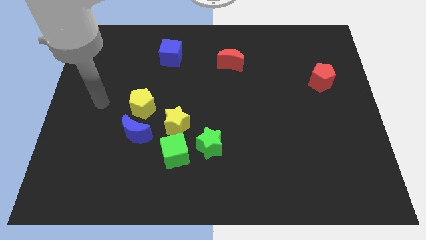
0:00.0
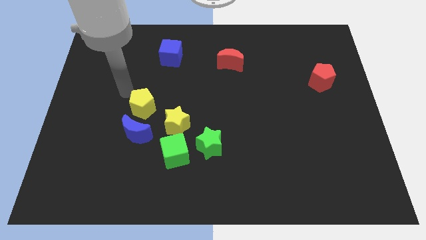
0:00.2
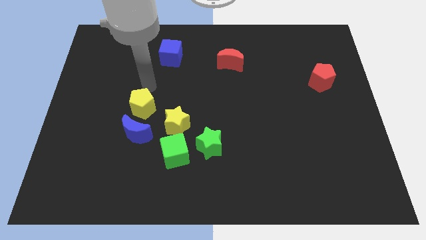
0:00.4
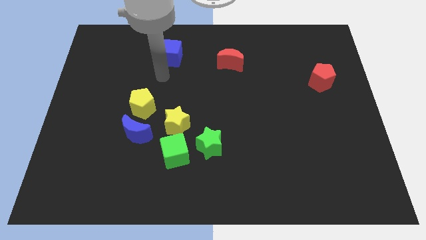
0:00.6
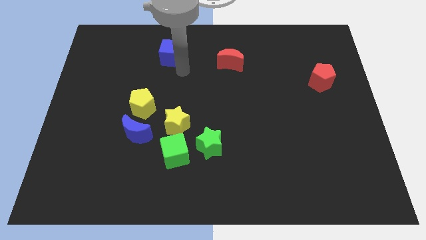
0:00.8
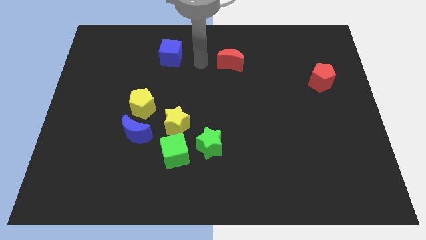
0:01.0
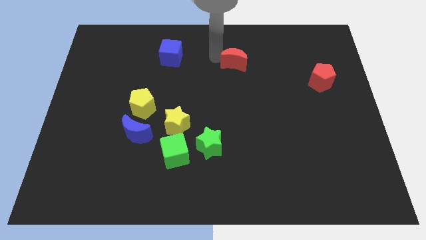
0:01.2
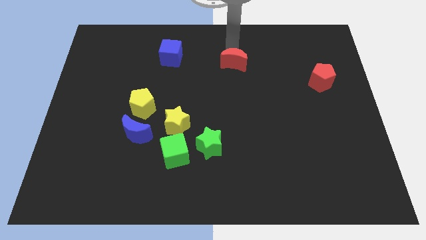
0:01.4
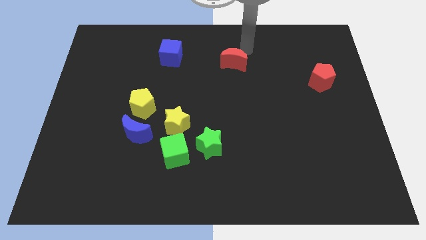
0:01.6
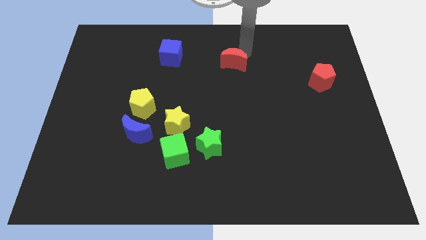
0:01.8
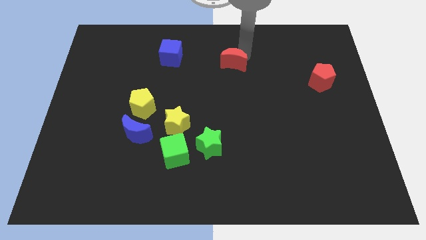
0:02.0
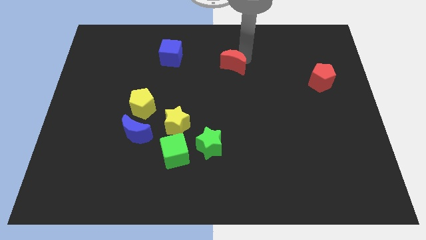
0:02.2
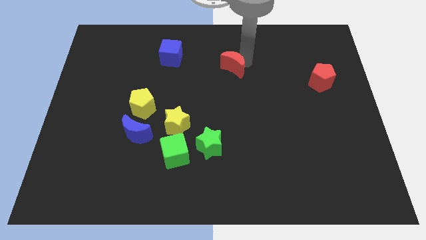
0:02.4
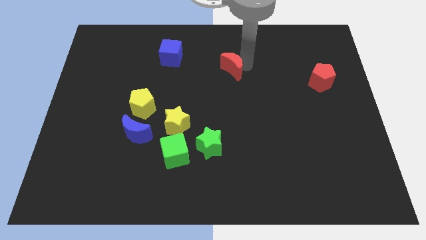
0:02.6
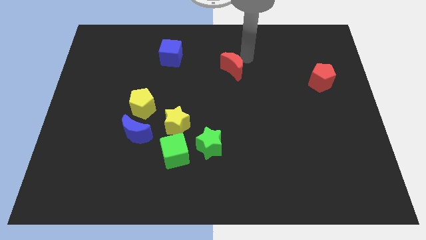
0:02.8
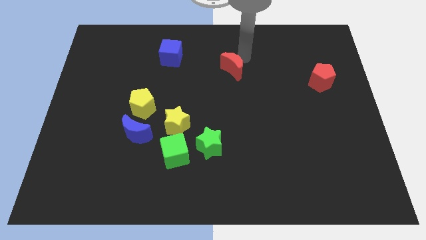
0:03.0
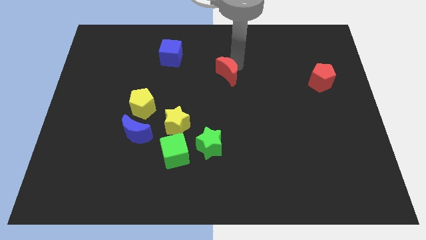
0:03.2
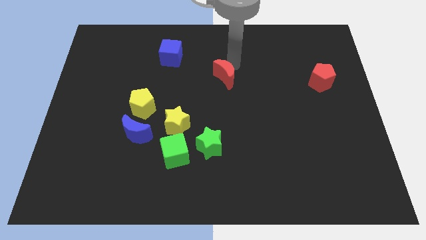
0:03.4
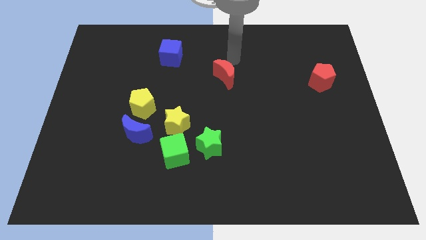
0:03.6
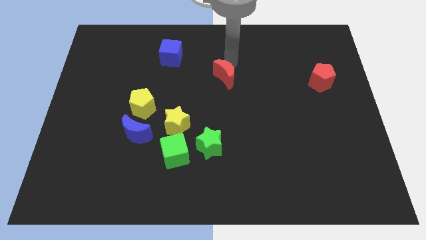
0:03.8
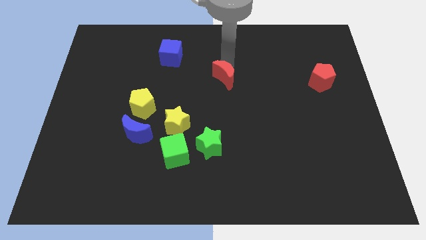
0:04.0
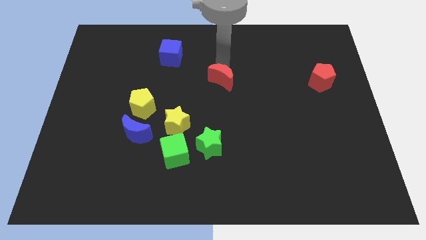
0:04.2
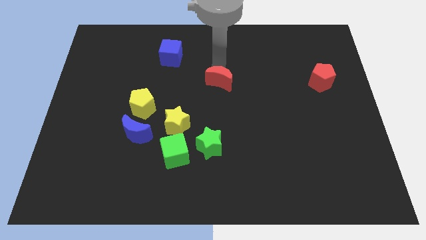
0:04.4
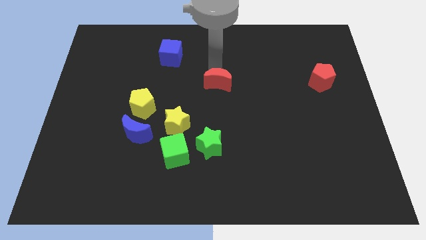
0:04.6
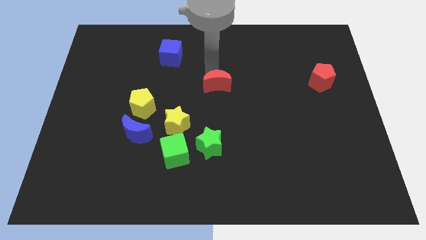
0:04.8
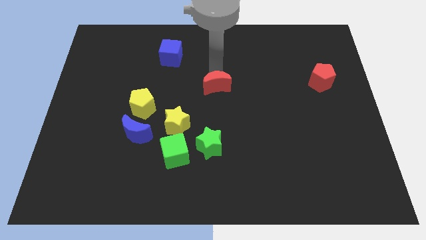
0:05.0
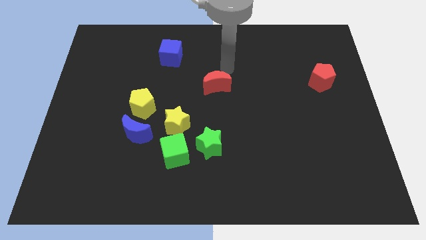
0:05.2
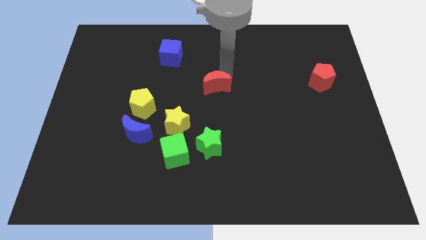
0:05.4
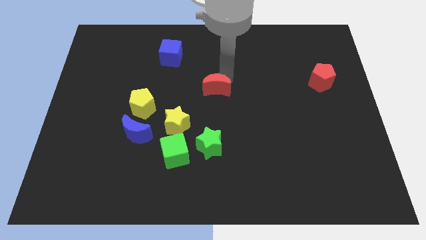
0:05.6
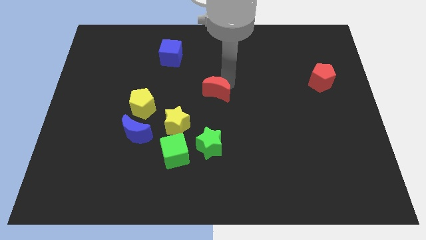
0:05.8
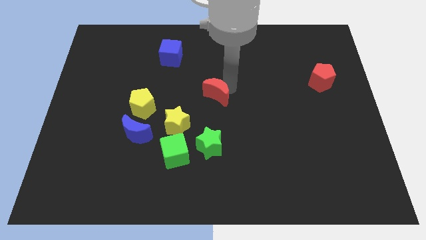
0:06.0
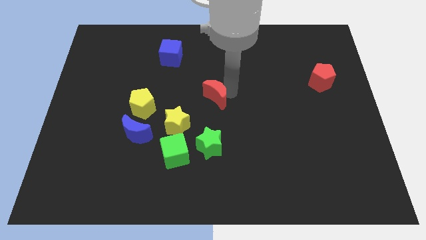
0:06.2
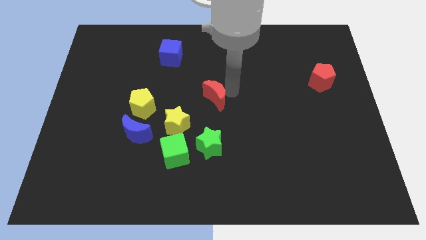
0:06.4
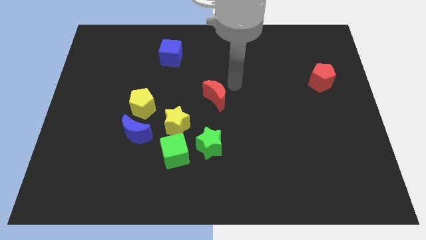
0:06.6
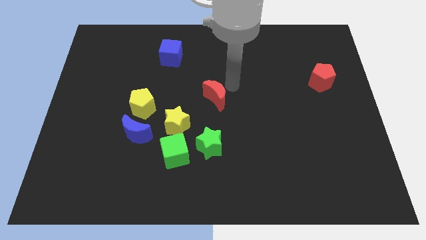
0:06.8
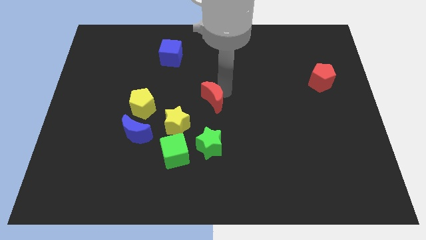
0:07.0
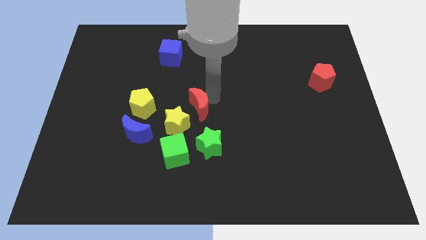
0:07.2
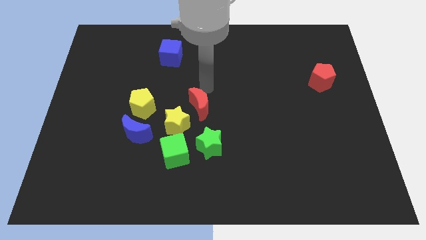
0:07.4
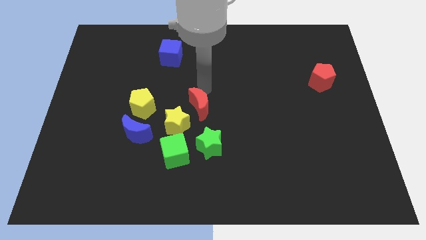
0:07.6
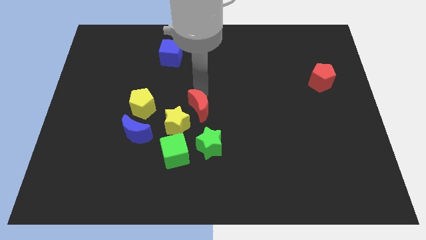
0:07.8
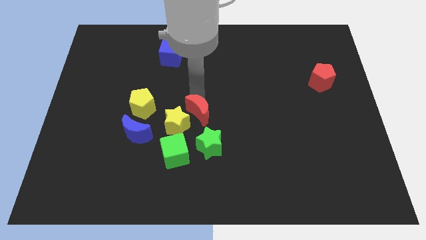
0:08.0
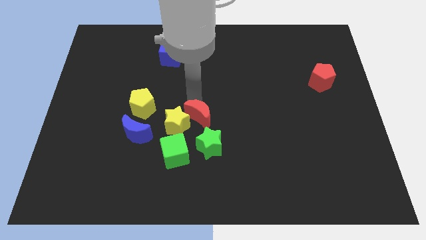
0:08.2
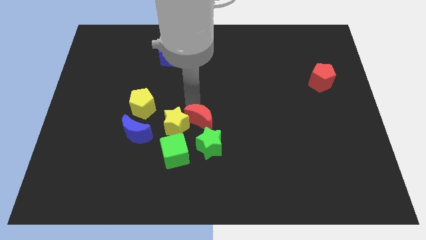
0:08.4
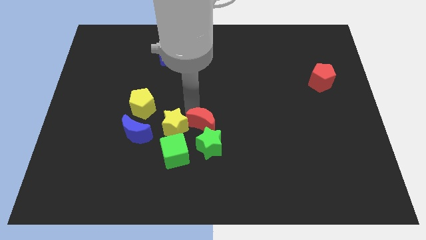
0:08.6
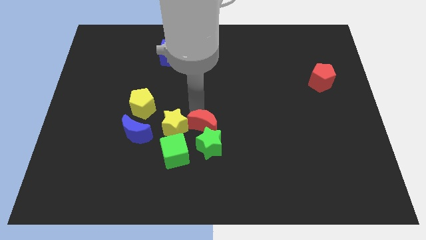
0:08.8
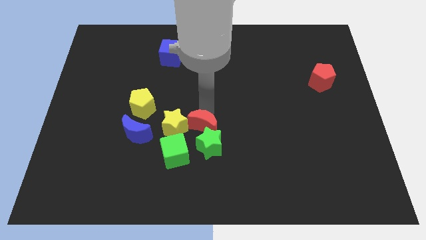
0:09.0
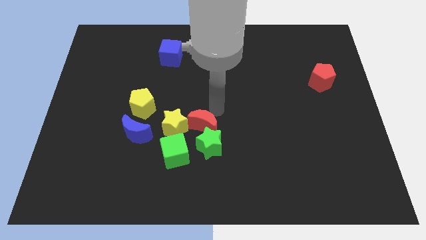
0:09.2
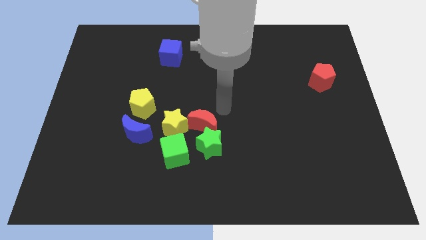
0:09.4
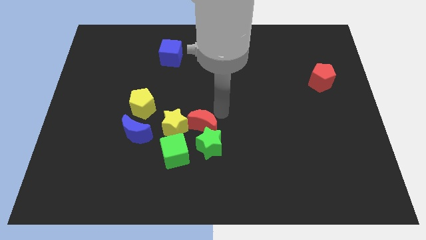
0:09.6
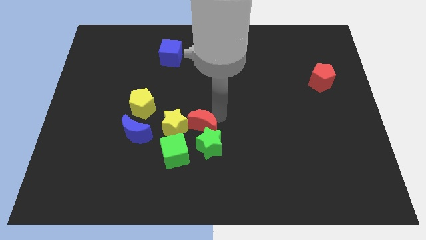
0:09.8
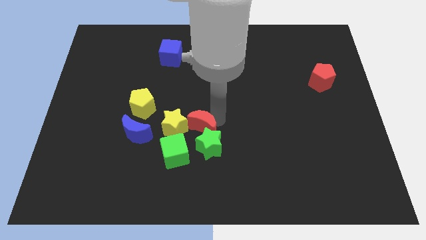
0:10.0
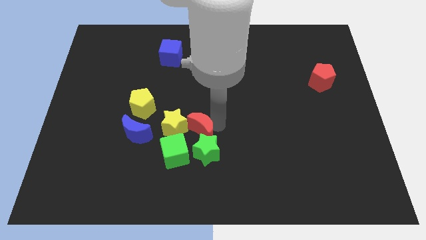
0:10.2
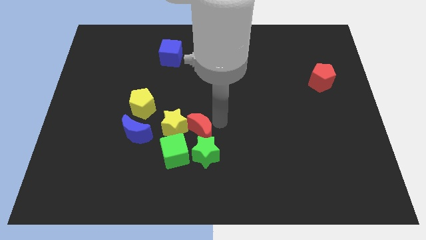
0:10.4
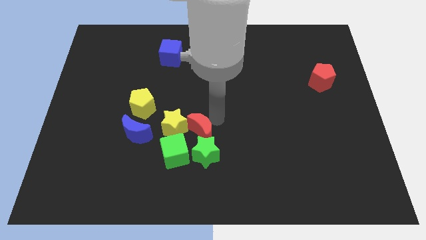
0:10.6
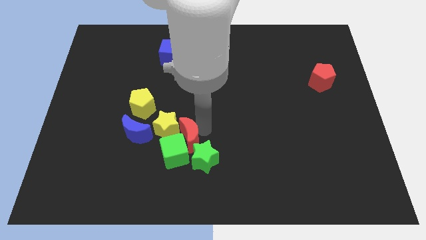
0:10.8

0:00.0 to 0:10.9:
push the red moon close to the green cube

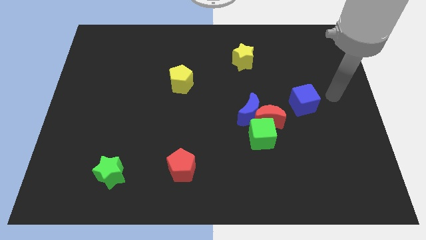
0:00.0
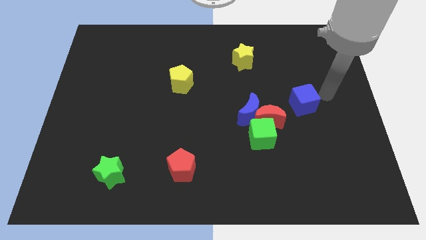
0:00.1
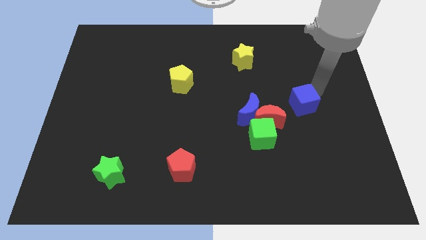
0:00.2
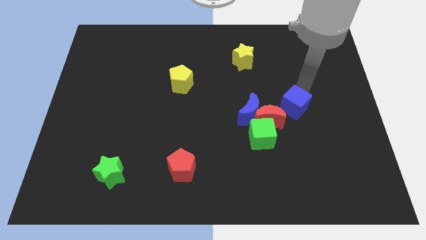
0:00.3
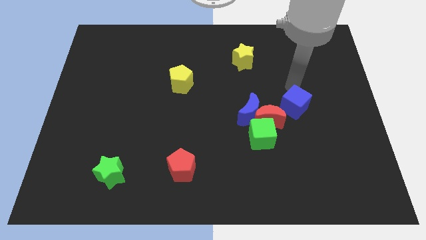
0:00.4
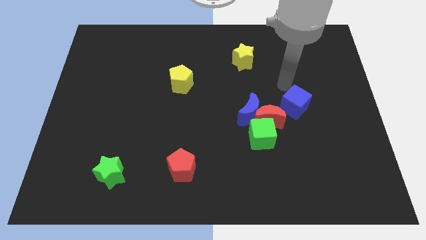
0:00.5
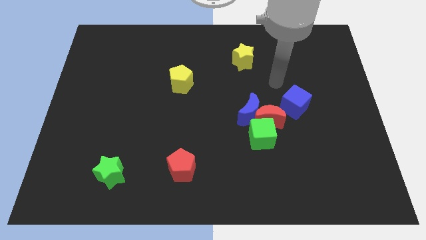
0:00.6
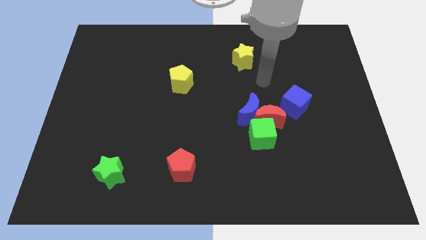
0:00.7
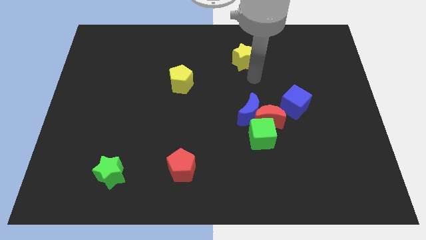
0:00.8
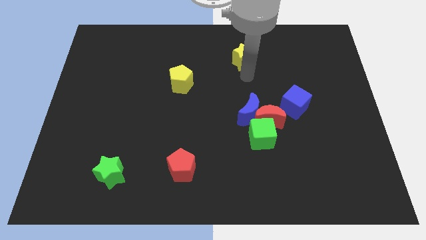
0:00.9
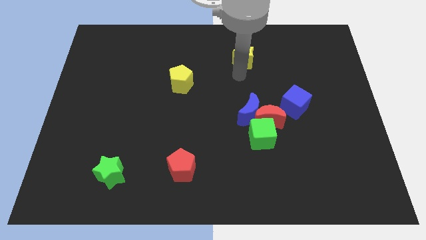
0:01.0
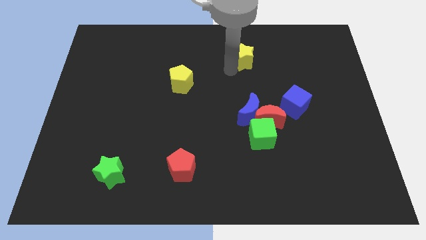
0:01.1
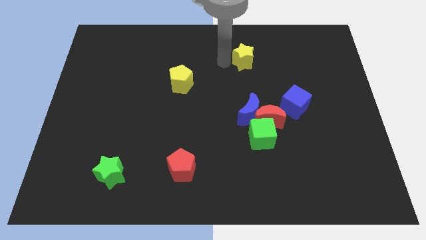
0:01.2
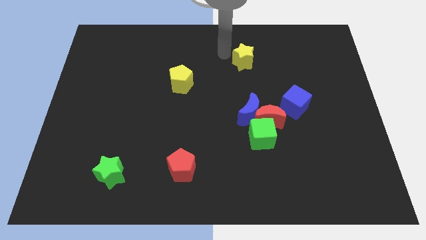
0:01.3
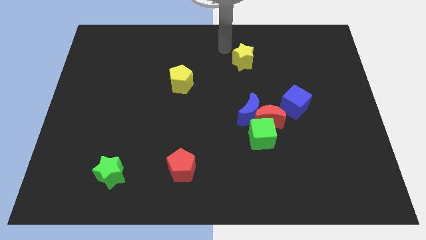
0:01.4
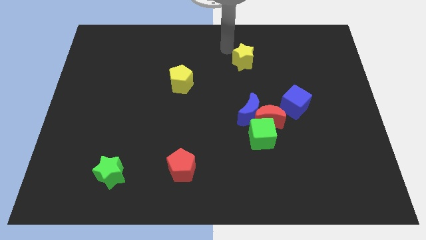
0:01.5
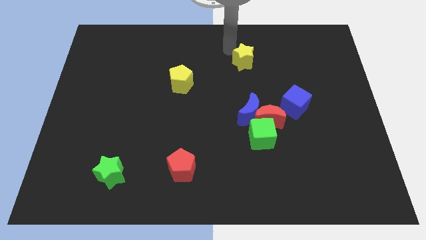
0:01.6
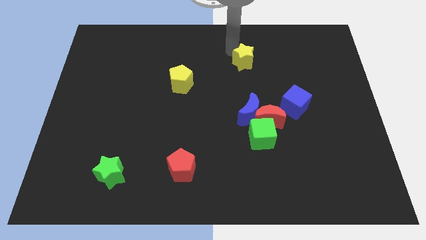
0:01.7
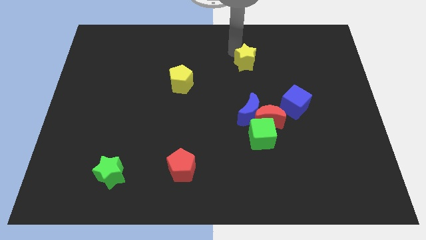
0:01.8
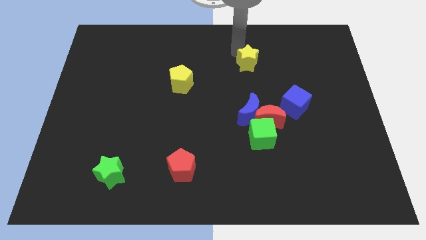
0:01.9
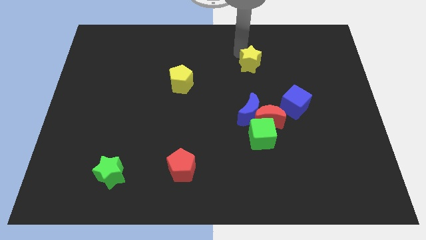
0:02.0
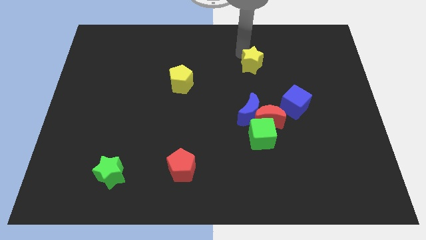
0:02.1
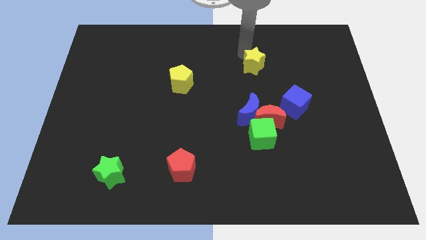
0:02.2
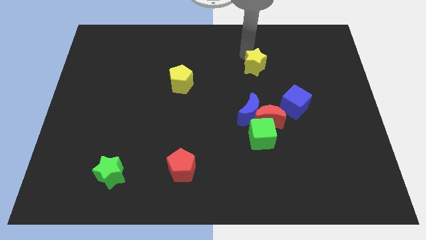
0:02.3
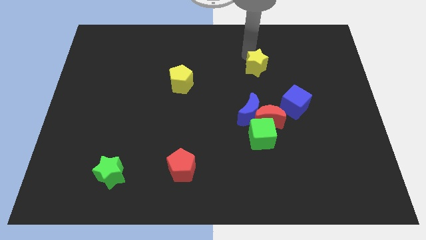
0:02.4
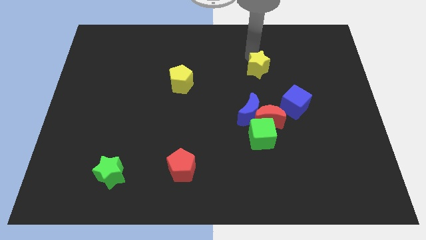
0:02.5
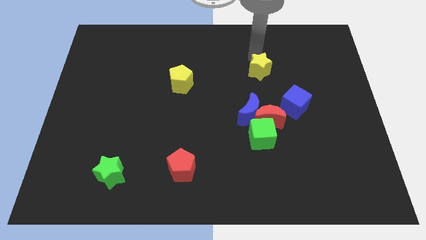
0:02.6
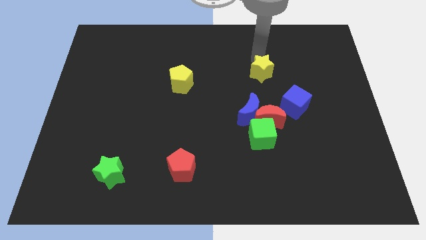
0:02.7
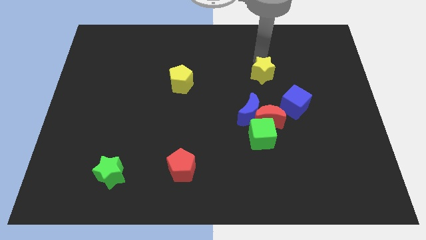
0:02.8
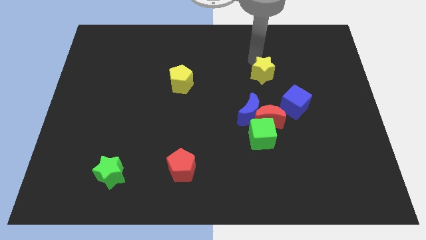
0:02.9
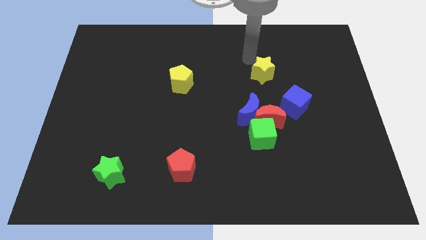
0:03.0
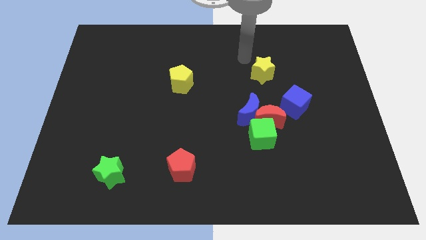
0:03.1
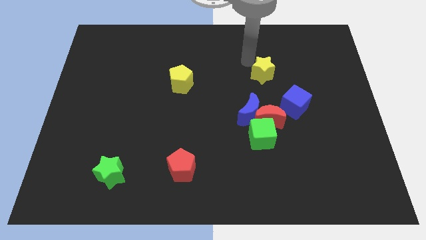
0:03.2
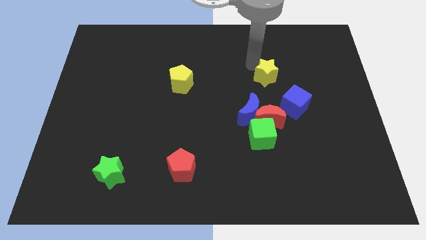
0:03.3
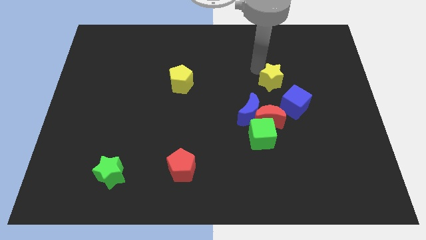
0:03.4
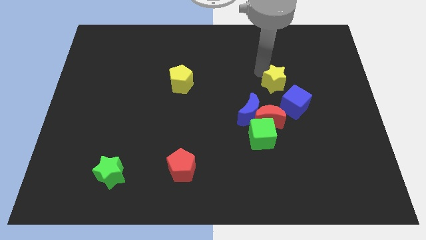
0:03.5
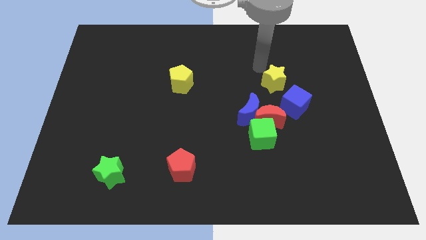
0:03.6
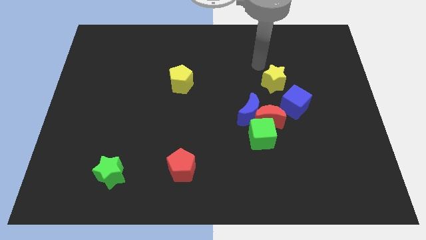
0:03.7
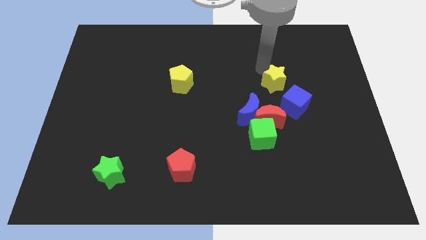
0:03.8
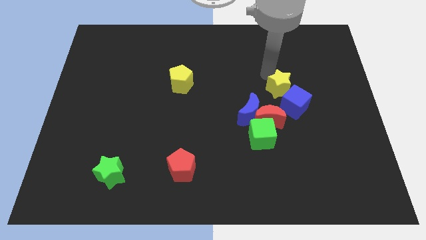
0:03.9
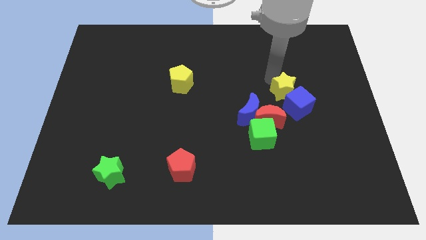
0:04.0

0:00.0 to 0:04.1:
move the yellow star close to the blue cube
